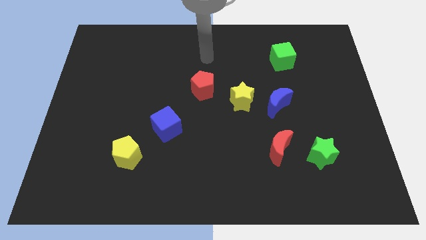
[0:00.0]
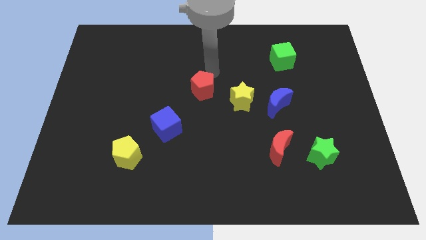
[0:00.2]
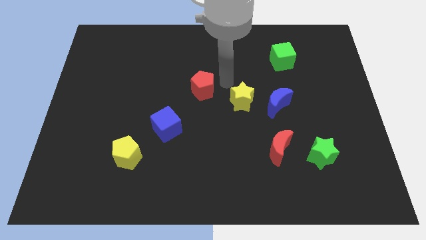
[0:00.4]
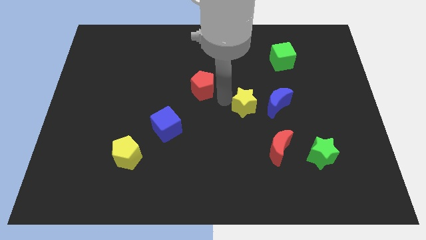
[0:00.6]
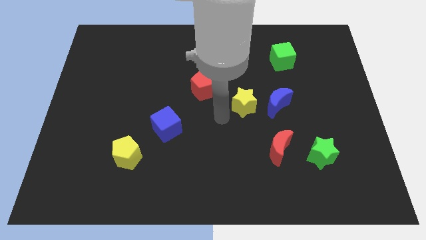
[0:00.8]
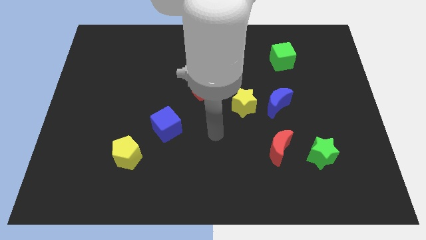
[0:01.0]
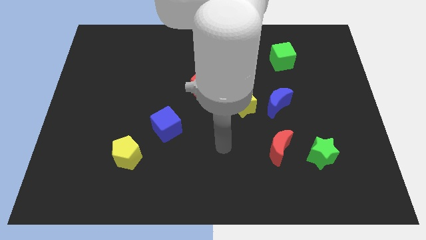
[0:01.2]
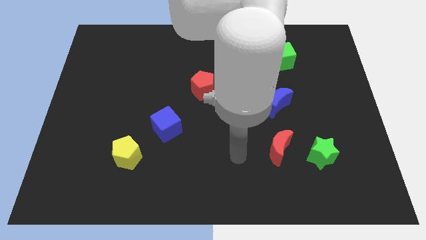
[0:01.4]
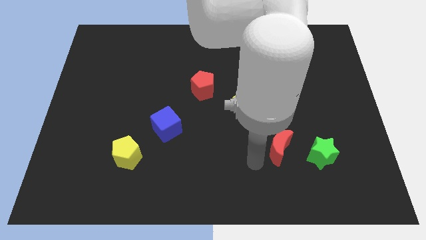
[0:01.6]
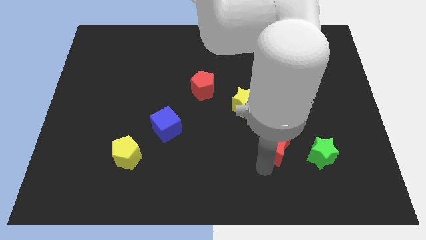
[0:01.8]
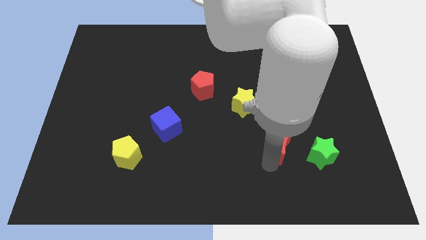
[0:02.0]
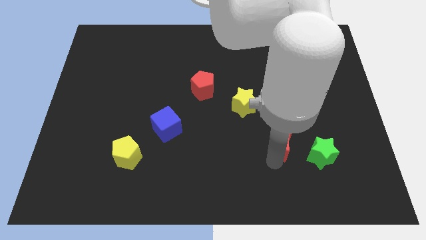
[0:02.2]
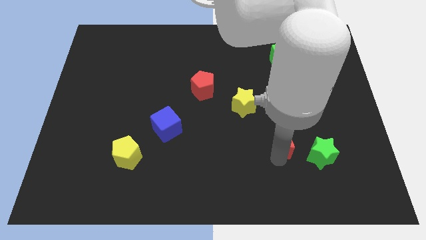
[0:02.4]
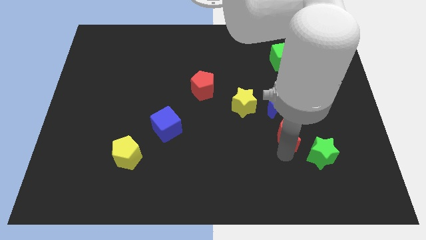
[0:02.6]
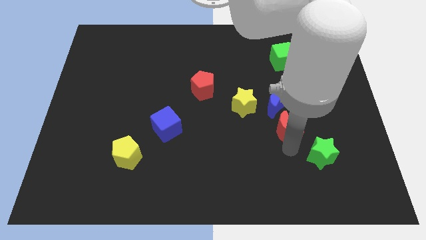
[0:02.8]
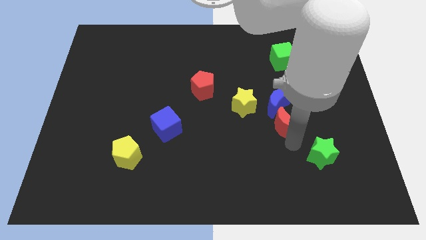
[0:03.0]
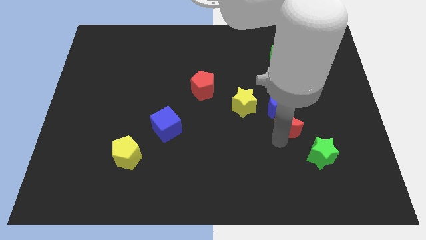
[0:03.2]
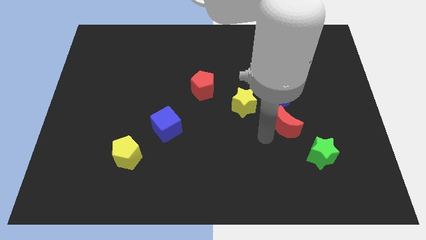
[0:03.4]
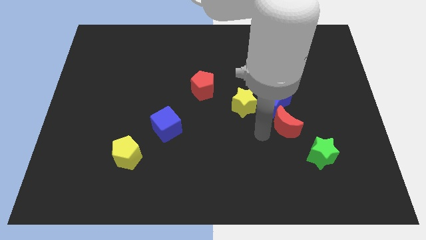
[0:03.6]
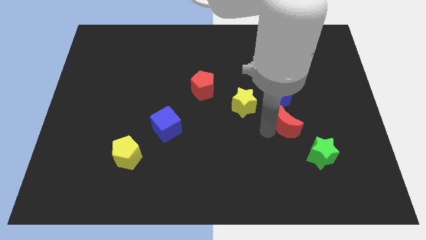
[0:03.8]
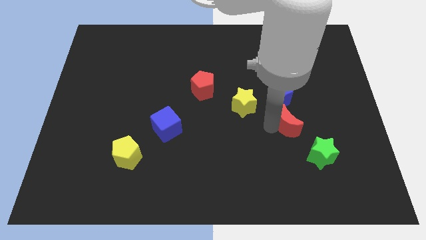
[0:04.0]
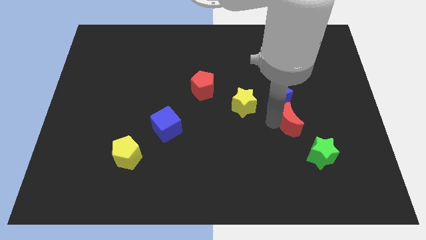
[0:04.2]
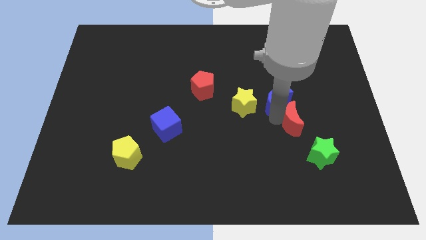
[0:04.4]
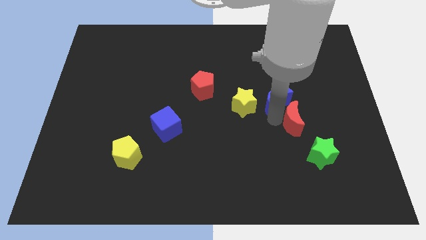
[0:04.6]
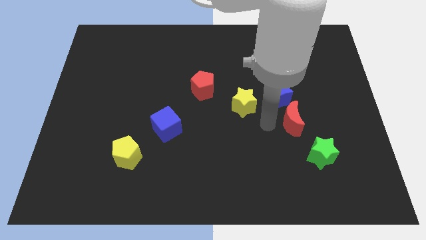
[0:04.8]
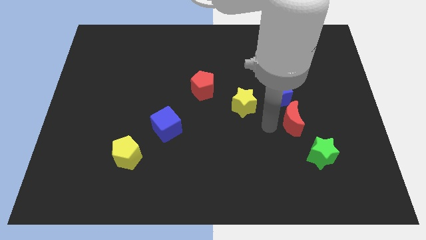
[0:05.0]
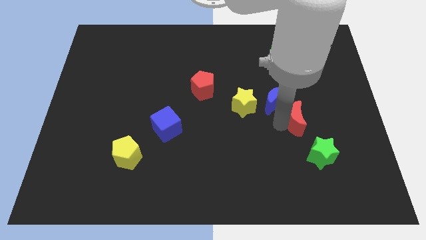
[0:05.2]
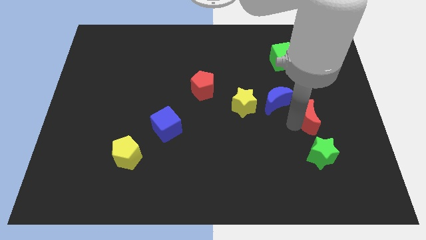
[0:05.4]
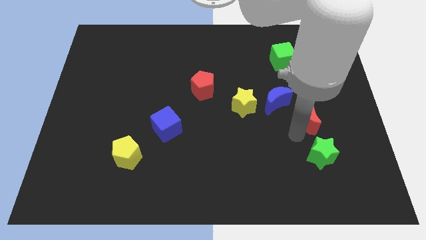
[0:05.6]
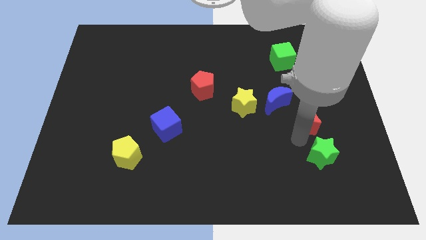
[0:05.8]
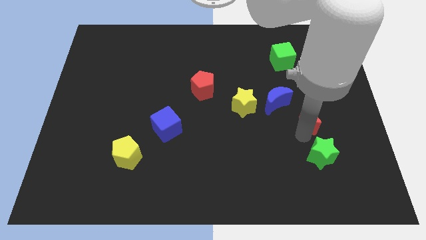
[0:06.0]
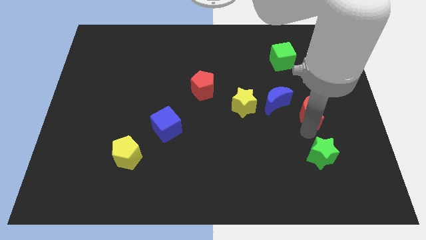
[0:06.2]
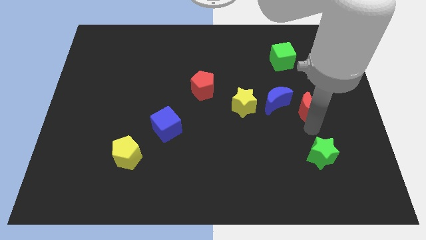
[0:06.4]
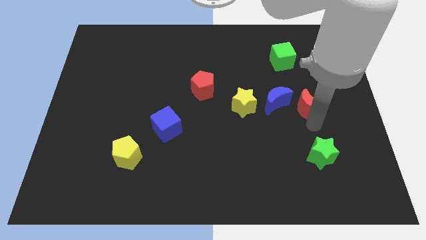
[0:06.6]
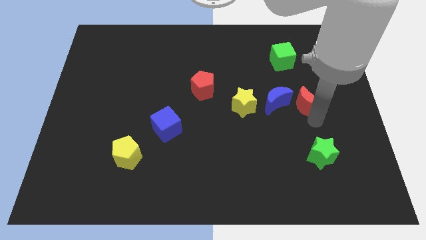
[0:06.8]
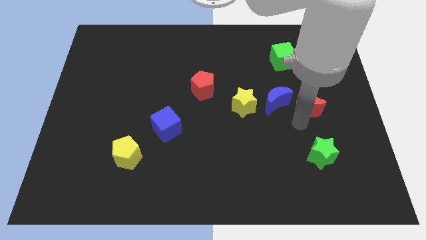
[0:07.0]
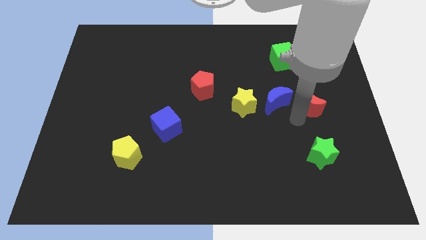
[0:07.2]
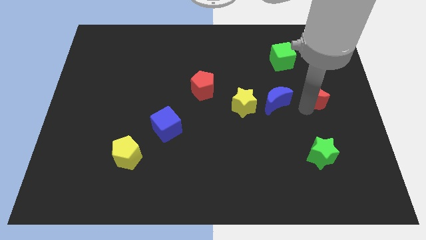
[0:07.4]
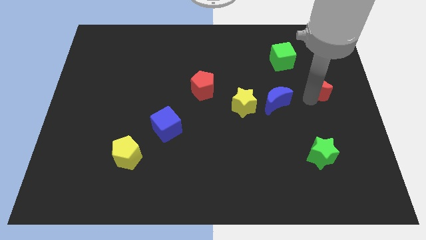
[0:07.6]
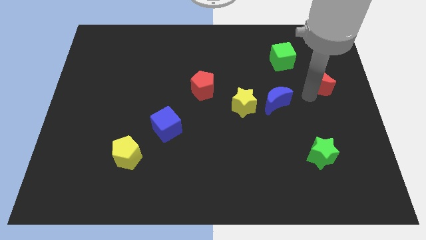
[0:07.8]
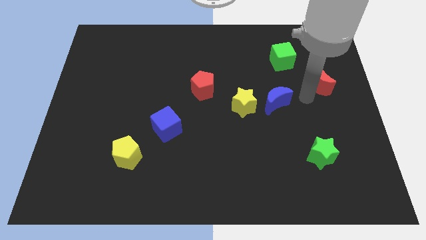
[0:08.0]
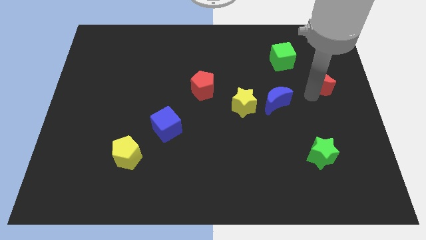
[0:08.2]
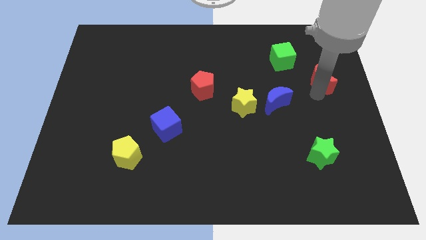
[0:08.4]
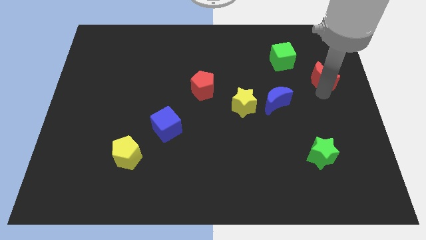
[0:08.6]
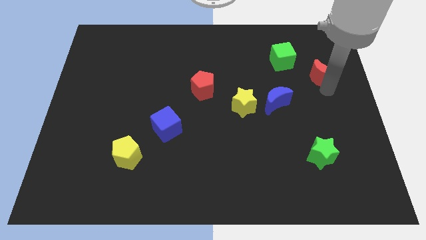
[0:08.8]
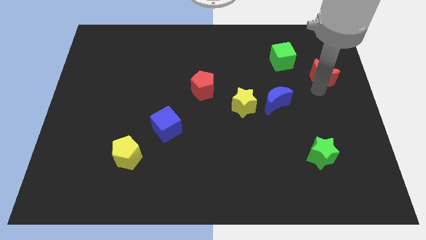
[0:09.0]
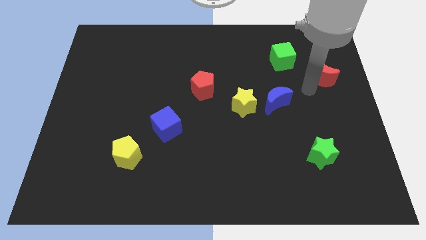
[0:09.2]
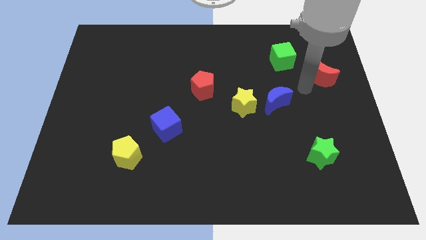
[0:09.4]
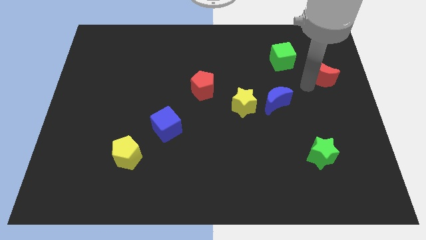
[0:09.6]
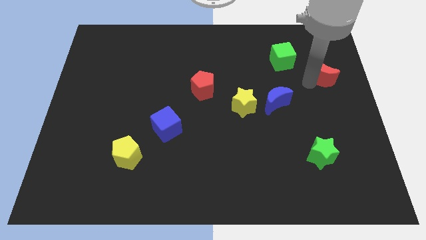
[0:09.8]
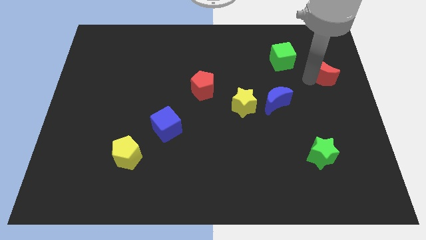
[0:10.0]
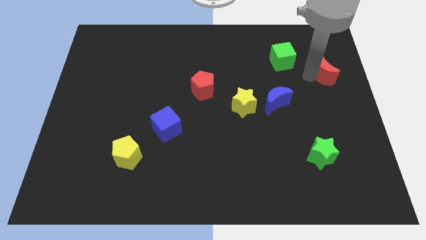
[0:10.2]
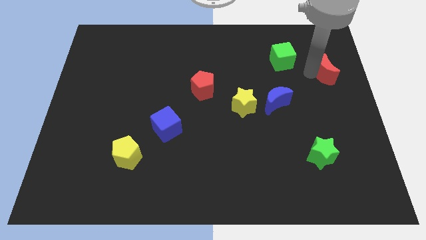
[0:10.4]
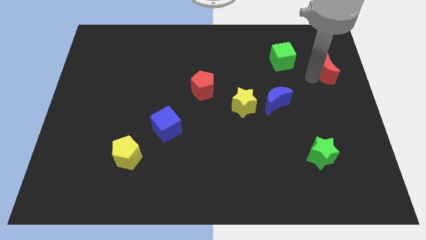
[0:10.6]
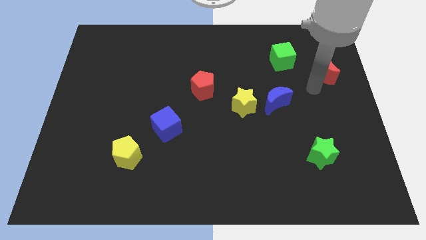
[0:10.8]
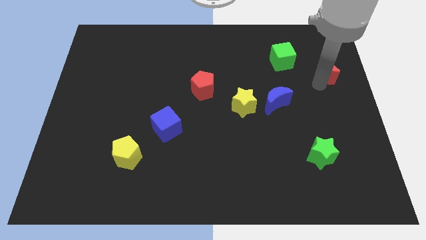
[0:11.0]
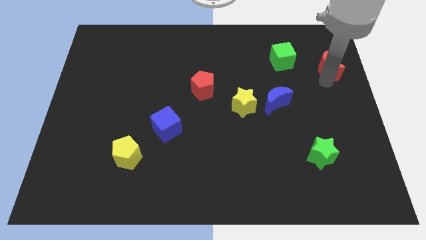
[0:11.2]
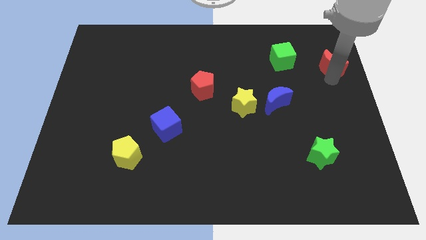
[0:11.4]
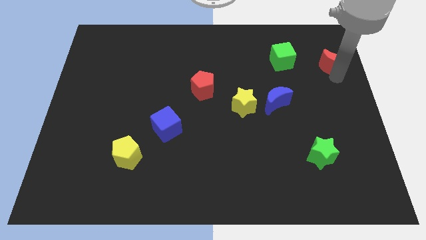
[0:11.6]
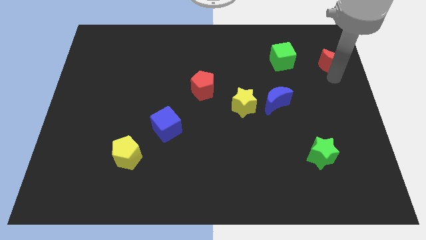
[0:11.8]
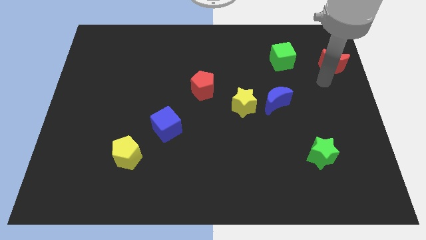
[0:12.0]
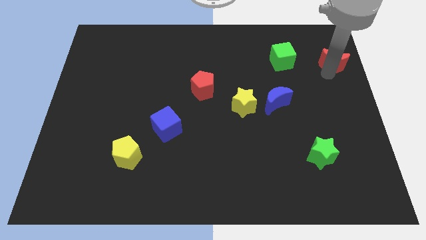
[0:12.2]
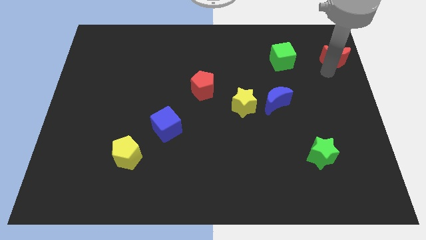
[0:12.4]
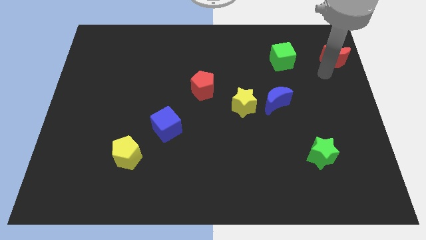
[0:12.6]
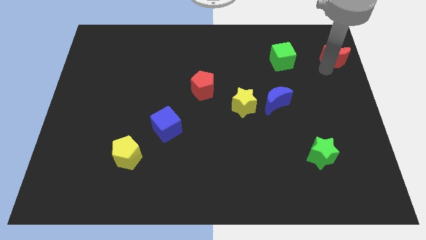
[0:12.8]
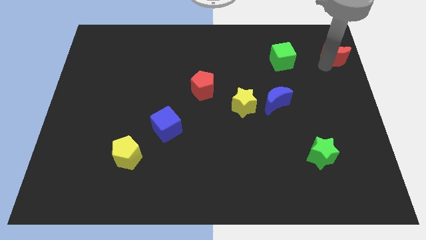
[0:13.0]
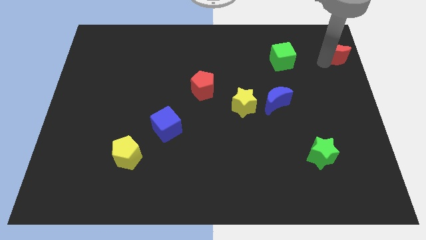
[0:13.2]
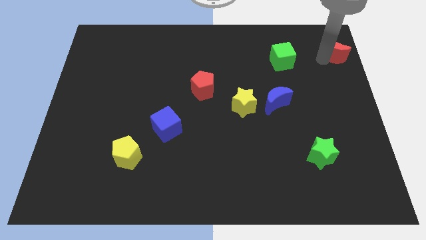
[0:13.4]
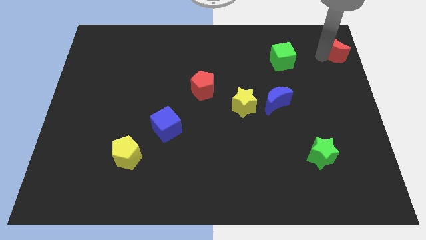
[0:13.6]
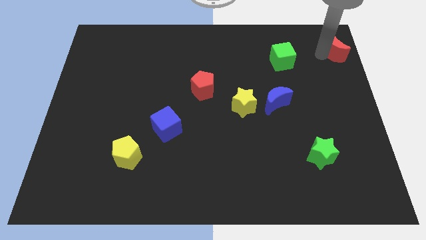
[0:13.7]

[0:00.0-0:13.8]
move the red moon to the top right of the board
